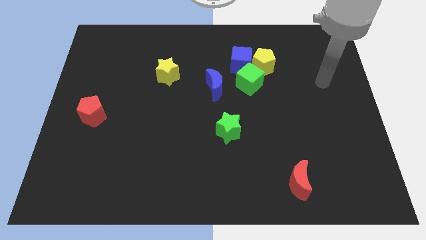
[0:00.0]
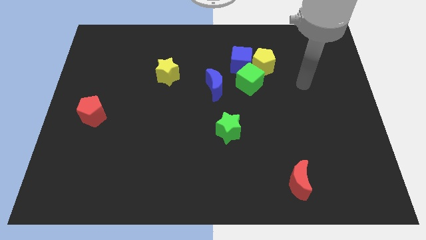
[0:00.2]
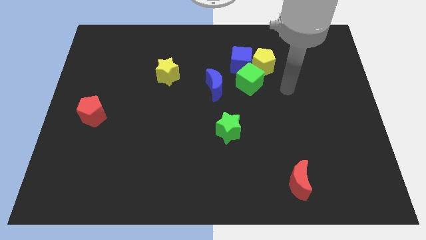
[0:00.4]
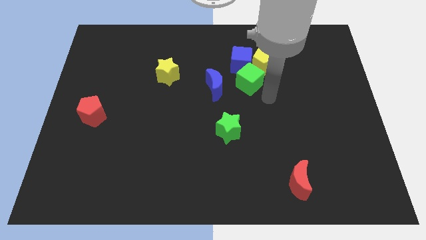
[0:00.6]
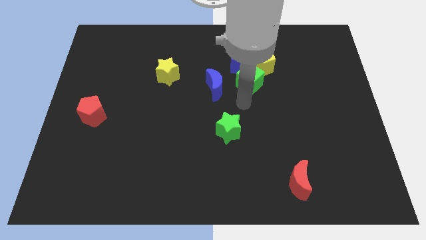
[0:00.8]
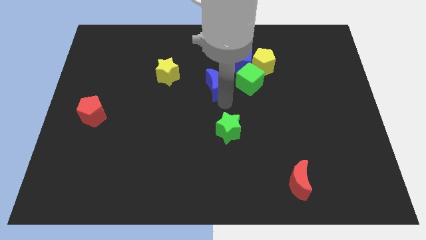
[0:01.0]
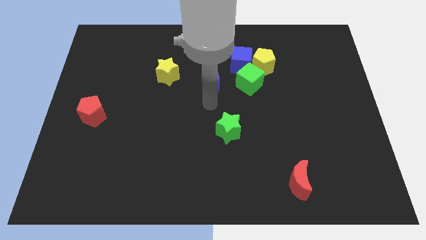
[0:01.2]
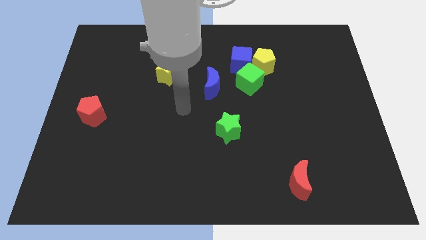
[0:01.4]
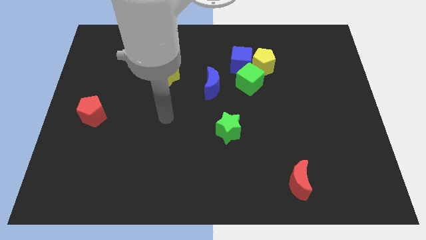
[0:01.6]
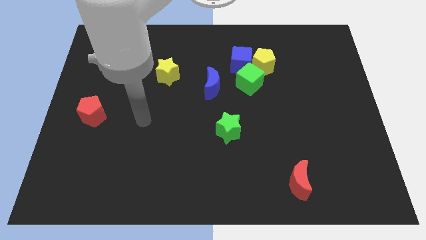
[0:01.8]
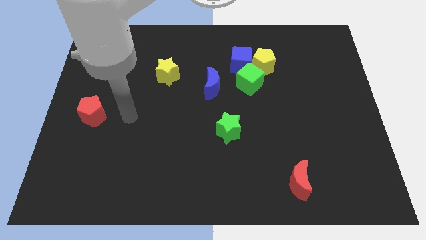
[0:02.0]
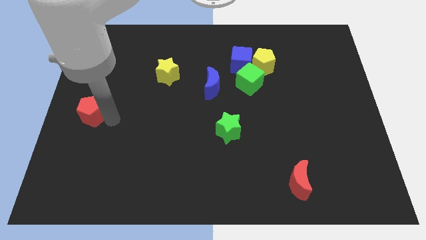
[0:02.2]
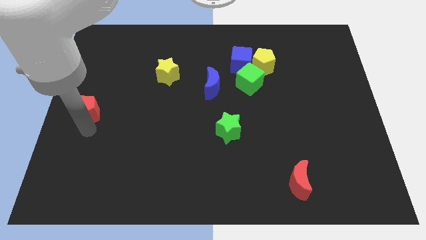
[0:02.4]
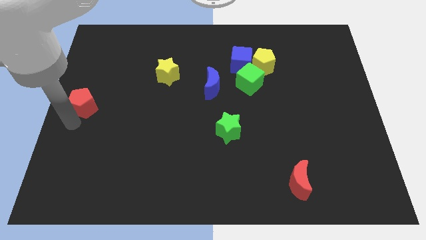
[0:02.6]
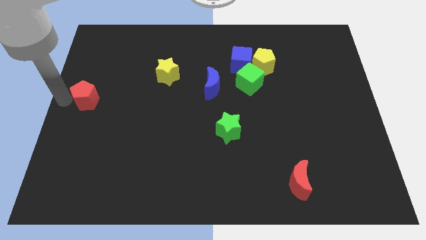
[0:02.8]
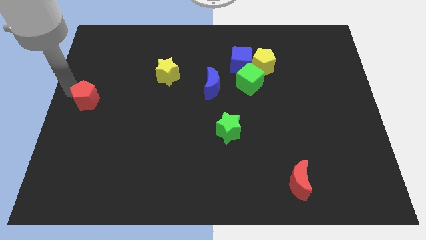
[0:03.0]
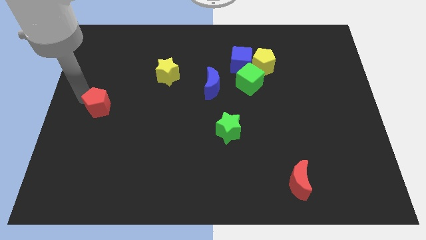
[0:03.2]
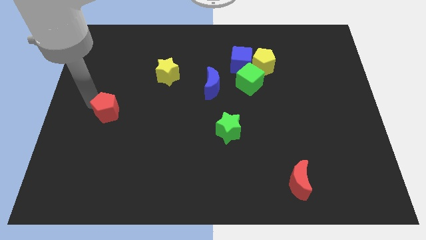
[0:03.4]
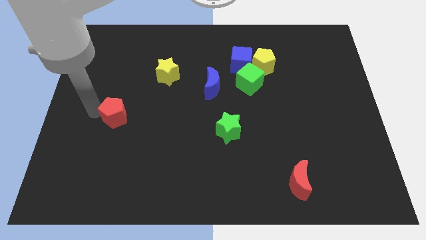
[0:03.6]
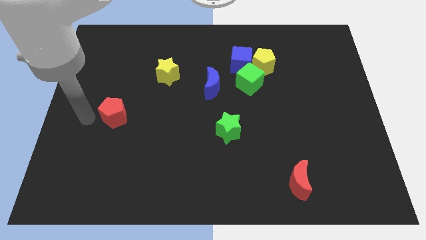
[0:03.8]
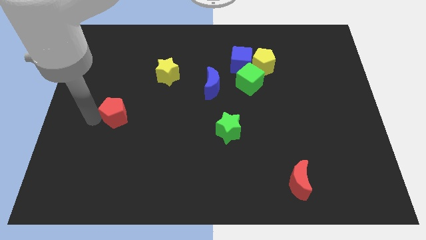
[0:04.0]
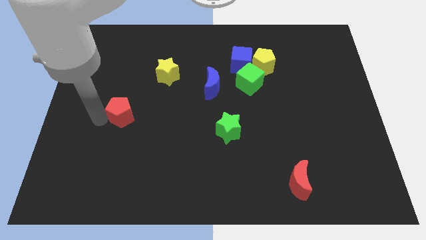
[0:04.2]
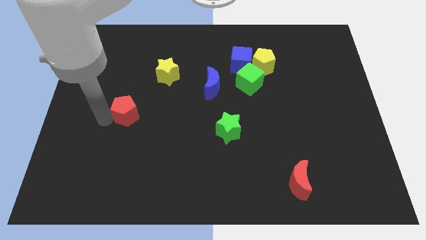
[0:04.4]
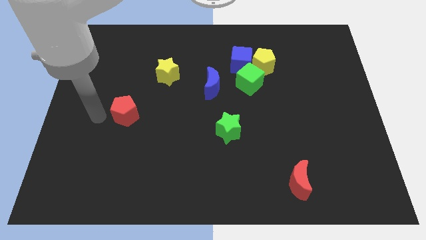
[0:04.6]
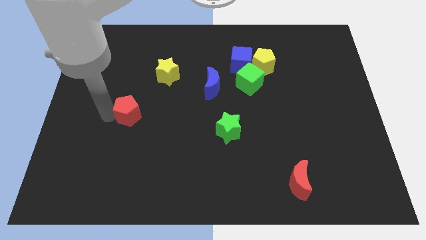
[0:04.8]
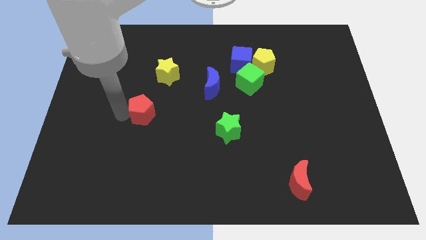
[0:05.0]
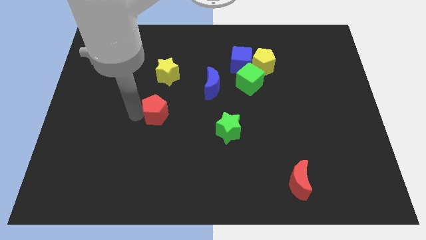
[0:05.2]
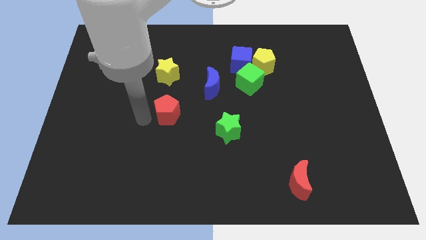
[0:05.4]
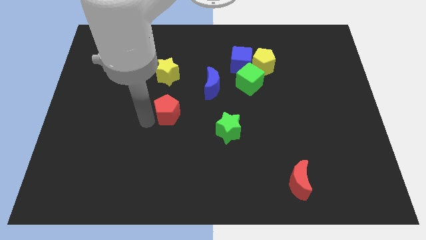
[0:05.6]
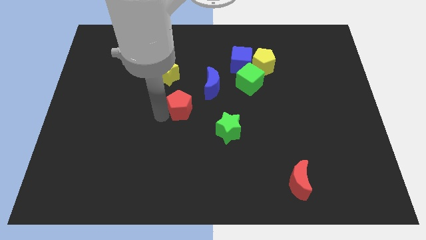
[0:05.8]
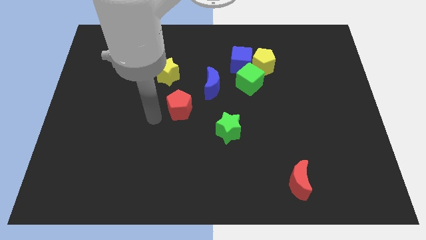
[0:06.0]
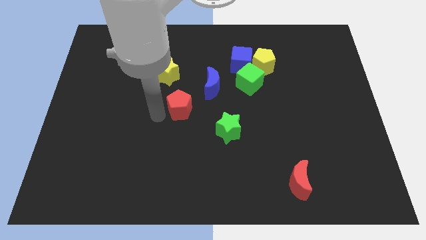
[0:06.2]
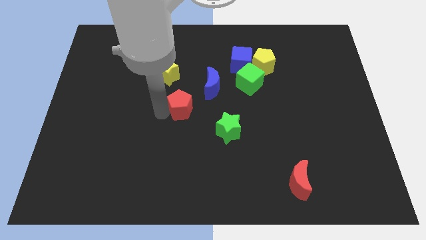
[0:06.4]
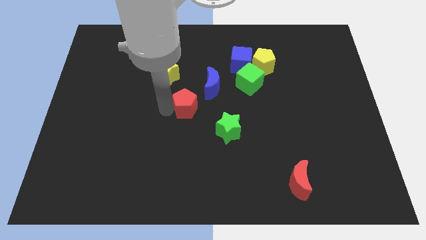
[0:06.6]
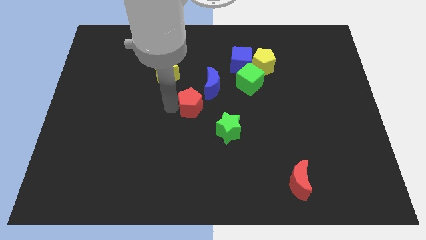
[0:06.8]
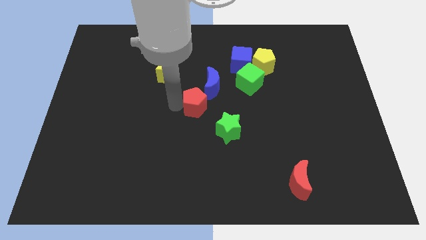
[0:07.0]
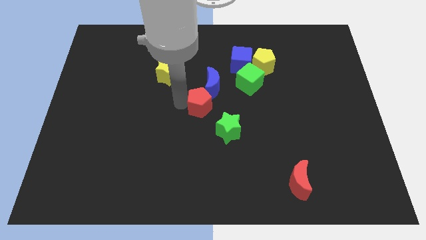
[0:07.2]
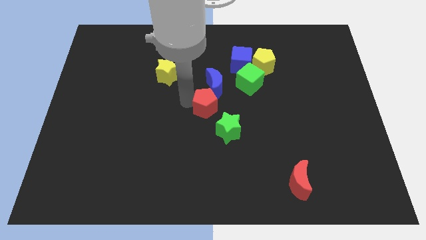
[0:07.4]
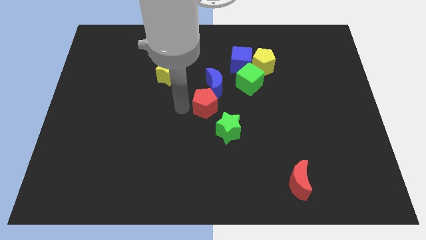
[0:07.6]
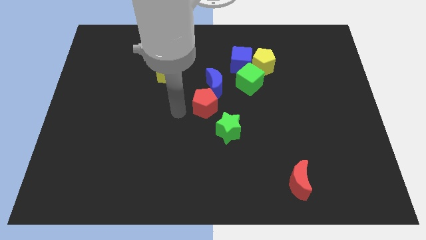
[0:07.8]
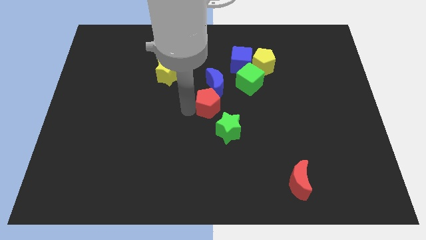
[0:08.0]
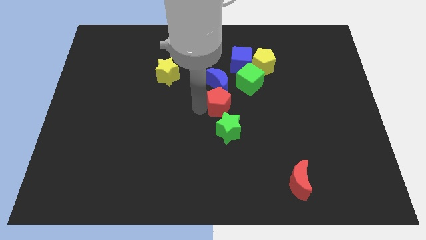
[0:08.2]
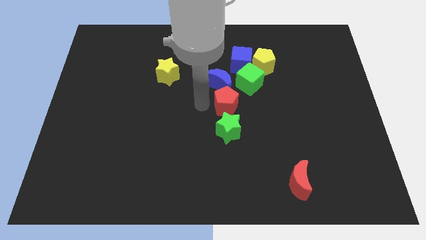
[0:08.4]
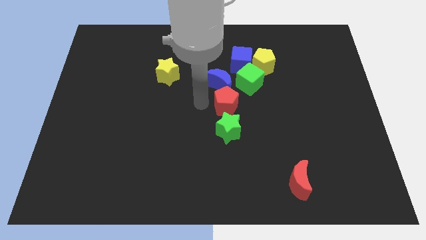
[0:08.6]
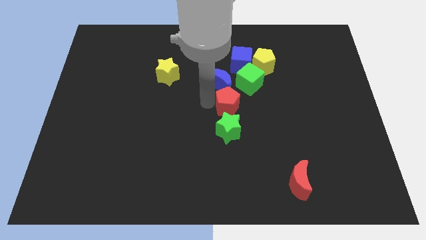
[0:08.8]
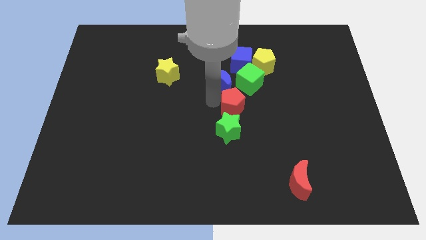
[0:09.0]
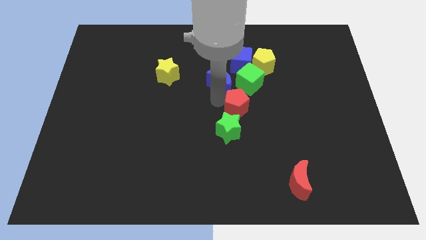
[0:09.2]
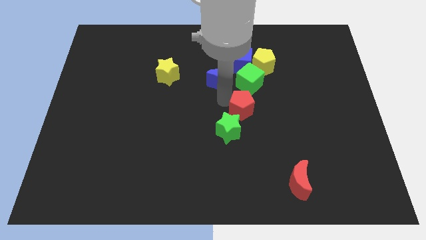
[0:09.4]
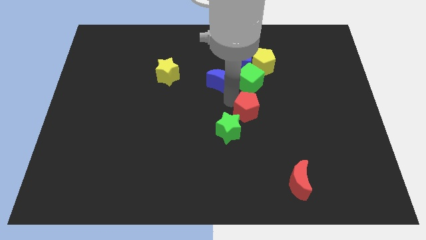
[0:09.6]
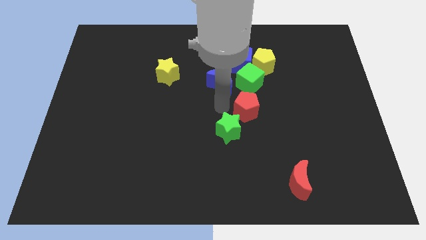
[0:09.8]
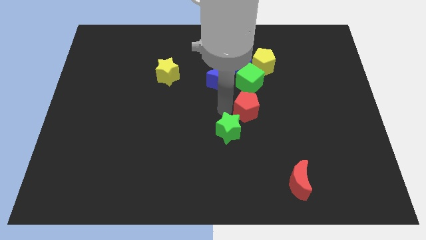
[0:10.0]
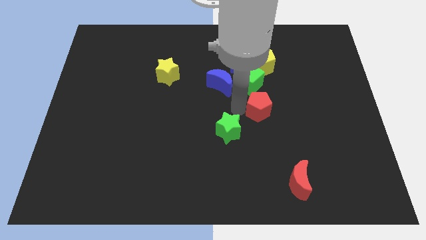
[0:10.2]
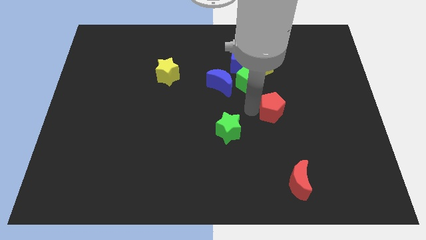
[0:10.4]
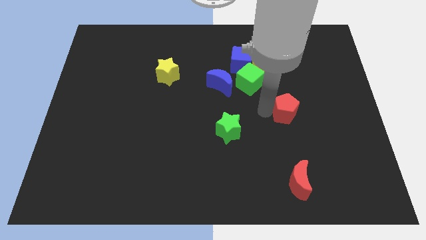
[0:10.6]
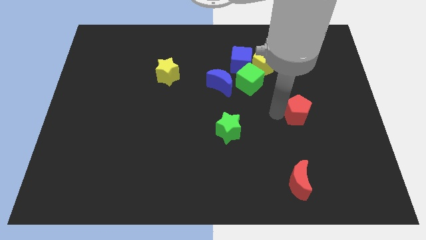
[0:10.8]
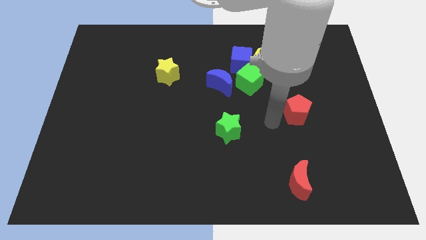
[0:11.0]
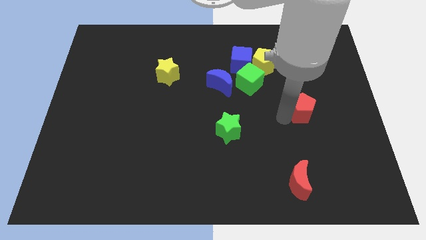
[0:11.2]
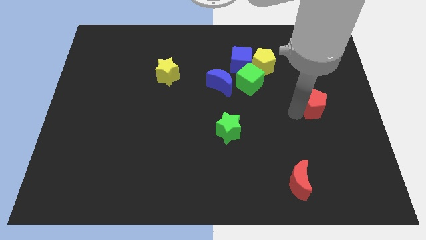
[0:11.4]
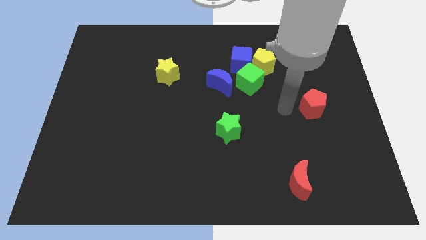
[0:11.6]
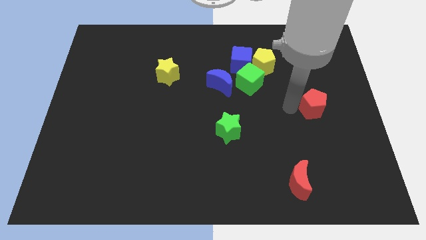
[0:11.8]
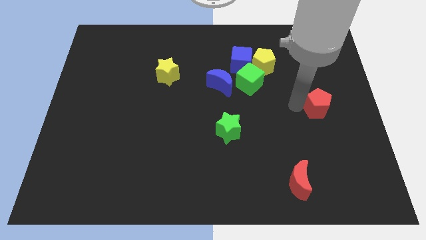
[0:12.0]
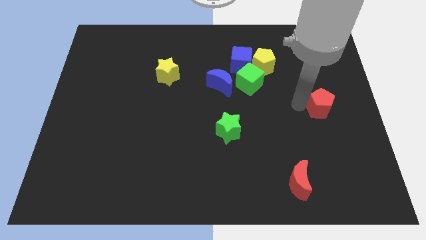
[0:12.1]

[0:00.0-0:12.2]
slide the red pentagon to the center right
